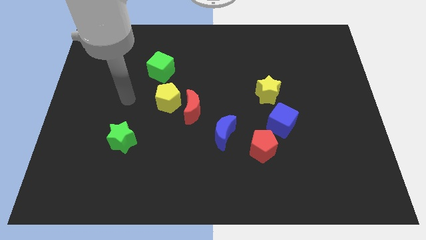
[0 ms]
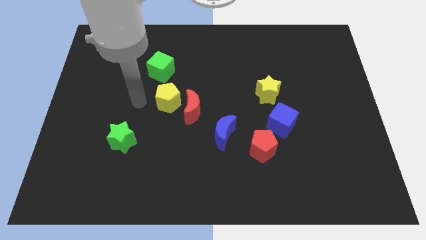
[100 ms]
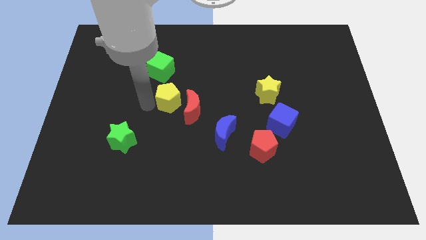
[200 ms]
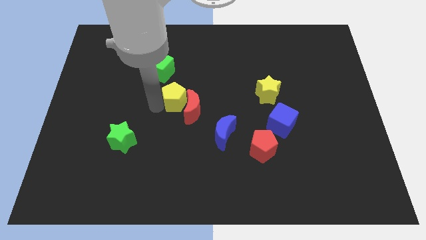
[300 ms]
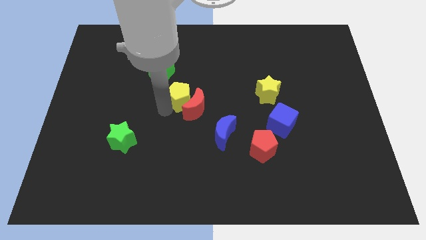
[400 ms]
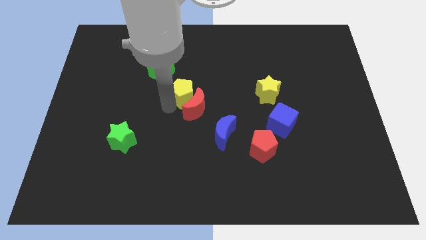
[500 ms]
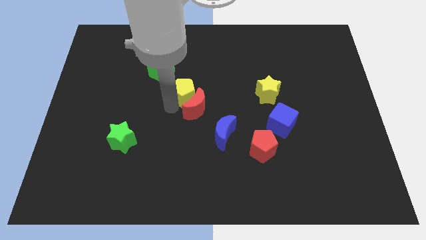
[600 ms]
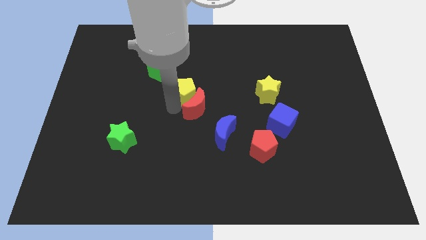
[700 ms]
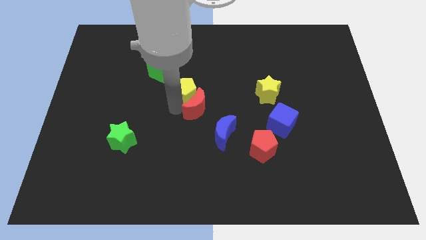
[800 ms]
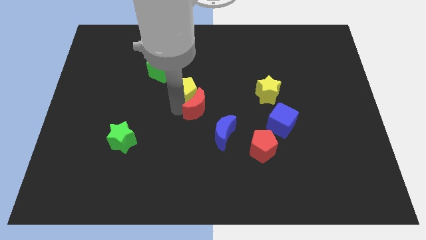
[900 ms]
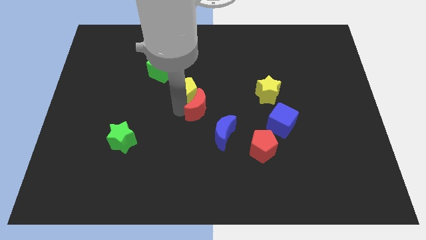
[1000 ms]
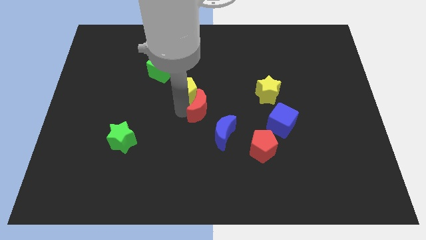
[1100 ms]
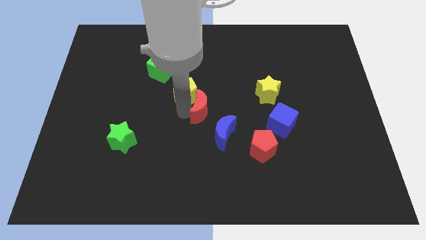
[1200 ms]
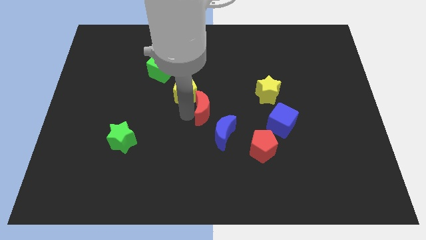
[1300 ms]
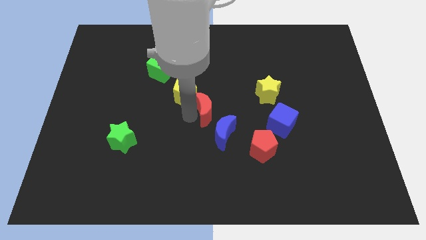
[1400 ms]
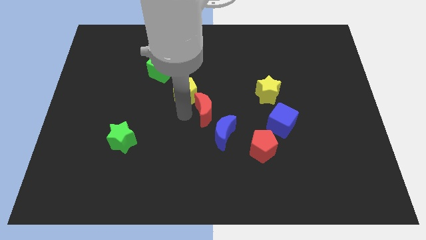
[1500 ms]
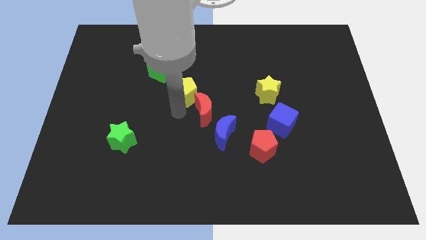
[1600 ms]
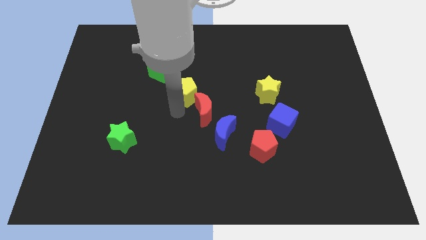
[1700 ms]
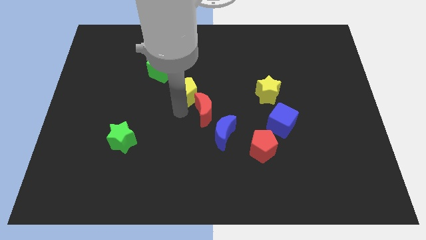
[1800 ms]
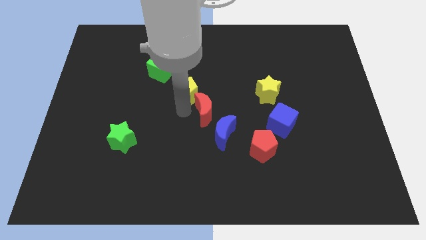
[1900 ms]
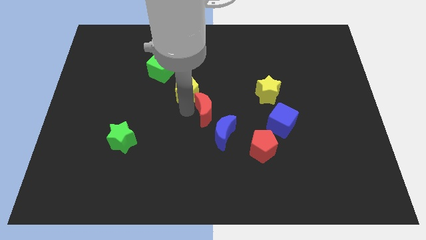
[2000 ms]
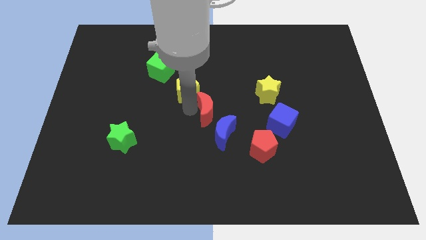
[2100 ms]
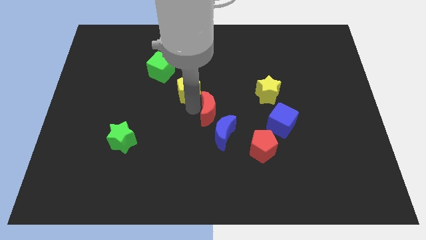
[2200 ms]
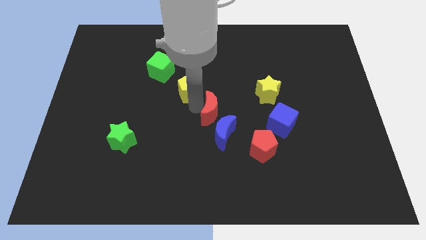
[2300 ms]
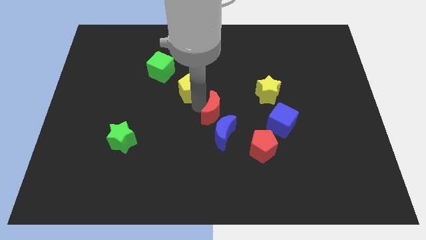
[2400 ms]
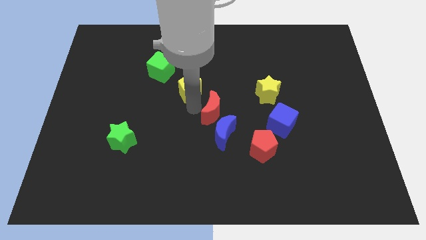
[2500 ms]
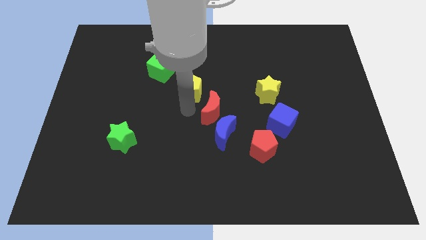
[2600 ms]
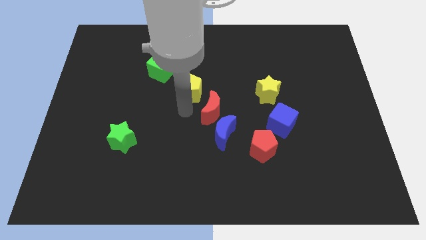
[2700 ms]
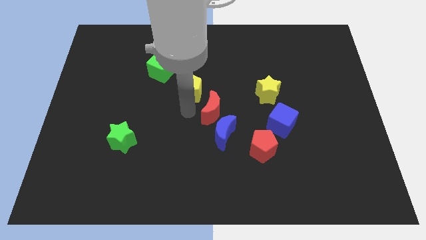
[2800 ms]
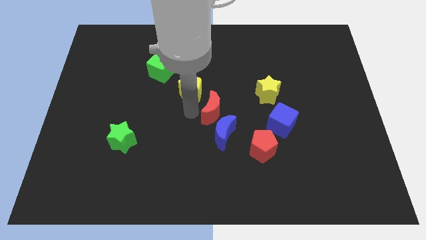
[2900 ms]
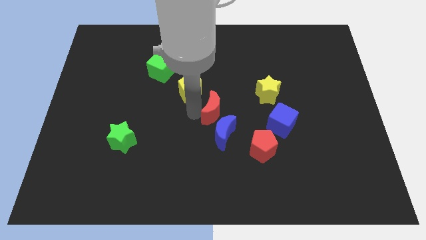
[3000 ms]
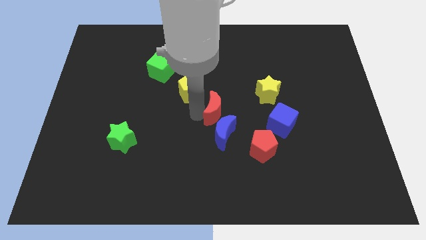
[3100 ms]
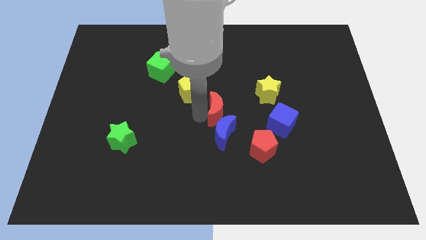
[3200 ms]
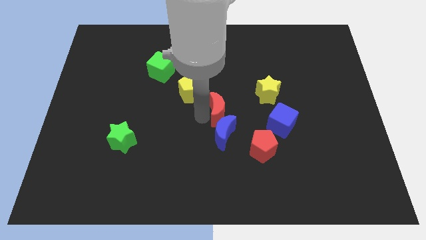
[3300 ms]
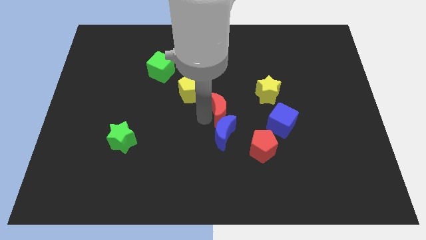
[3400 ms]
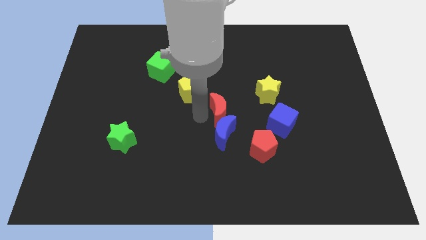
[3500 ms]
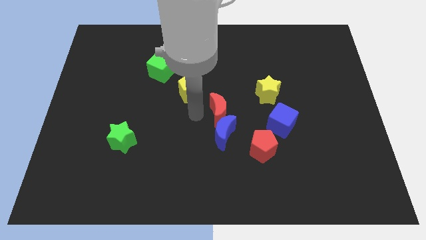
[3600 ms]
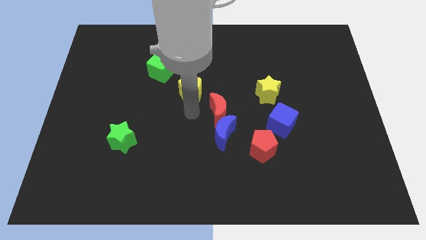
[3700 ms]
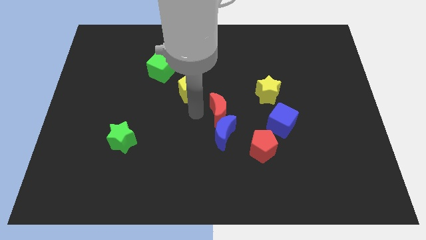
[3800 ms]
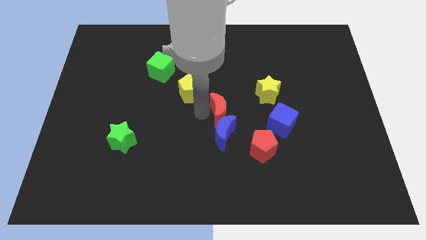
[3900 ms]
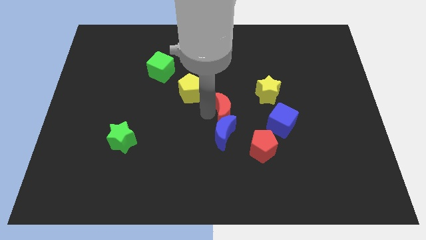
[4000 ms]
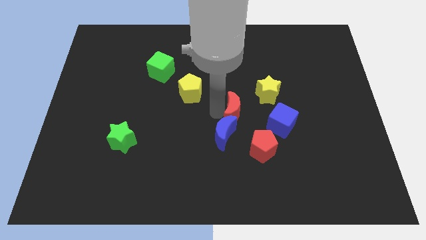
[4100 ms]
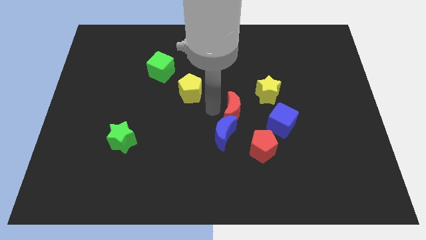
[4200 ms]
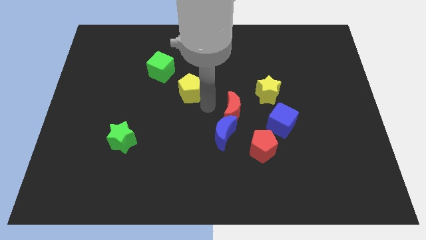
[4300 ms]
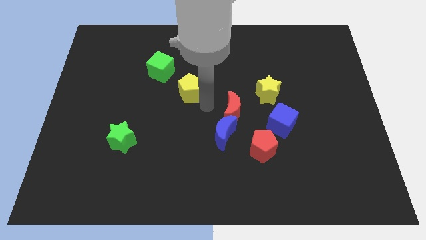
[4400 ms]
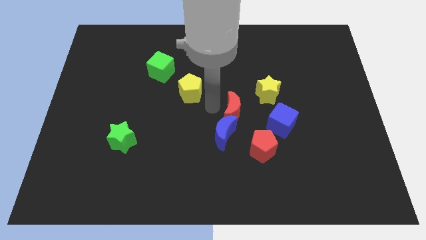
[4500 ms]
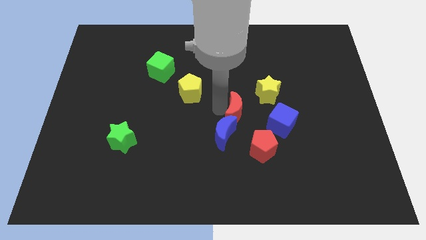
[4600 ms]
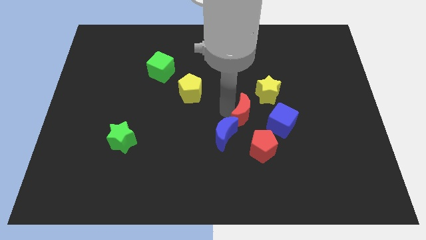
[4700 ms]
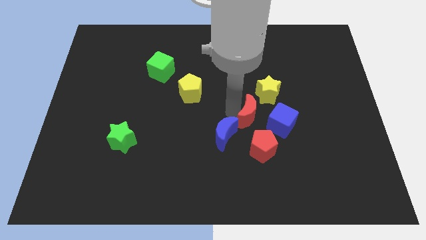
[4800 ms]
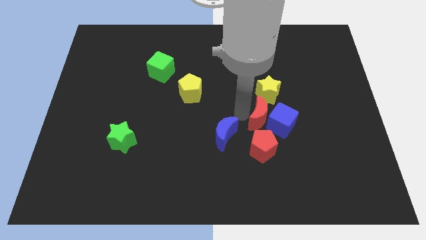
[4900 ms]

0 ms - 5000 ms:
push the red moon towards the blue cube

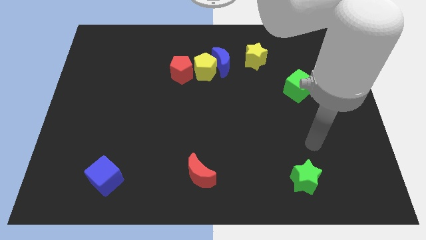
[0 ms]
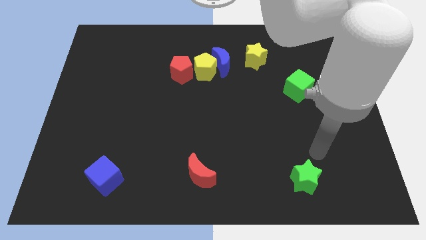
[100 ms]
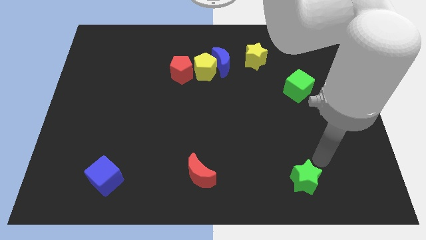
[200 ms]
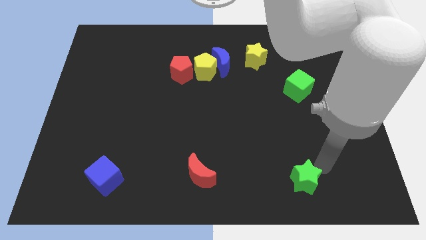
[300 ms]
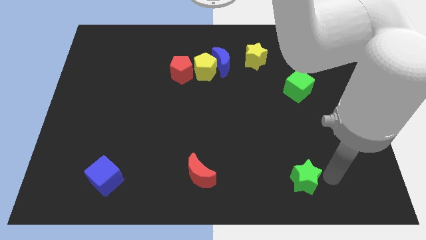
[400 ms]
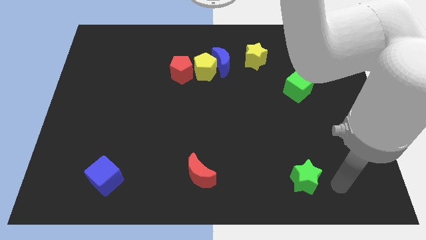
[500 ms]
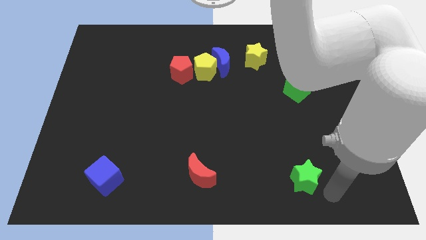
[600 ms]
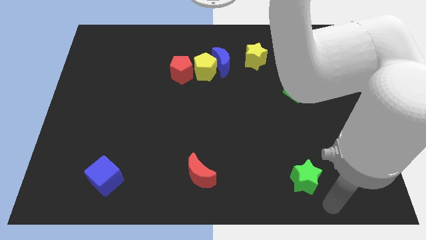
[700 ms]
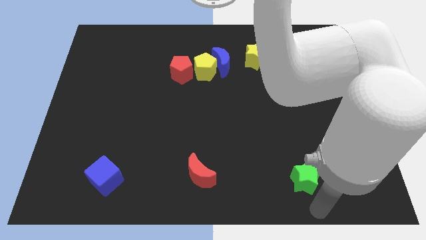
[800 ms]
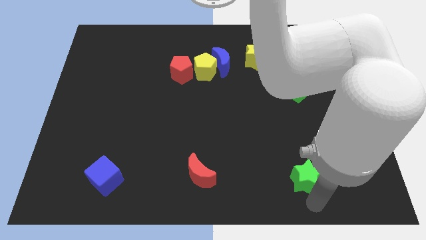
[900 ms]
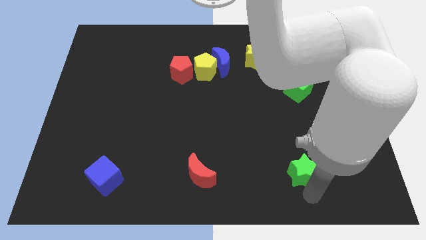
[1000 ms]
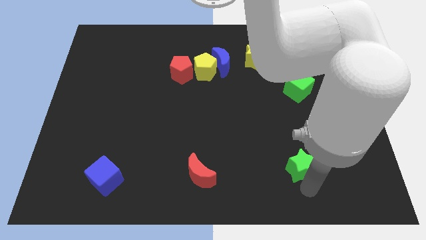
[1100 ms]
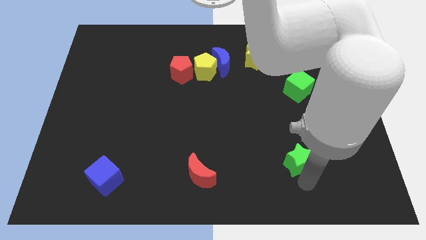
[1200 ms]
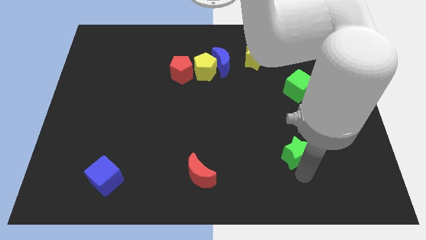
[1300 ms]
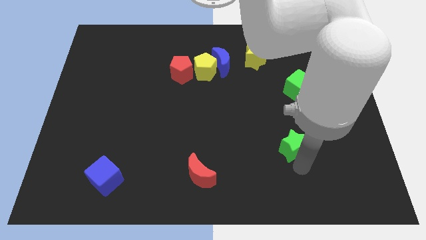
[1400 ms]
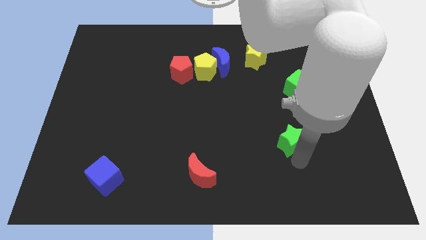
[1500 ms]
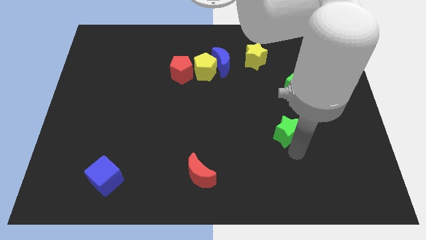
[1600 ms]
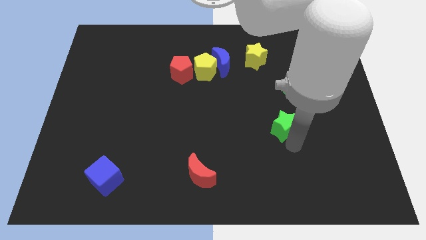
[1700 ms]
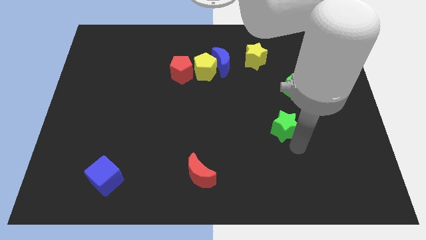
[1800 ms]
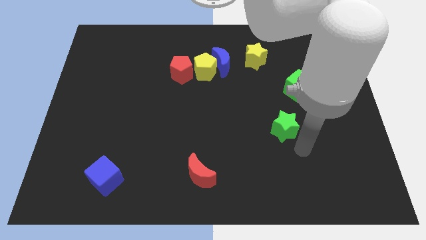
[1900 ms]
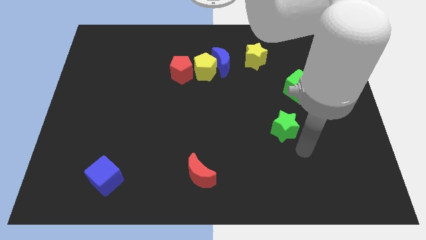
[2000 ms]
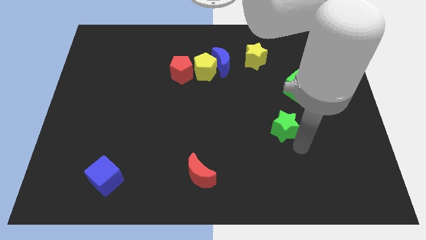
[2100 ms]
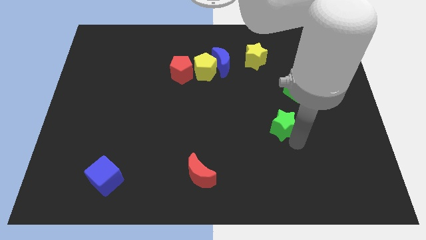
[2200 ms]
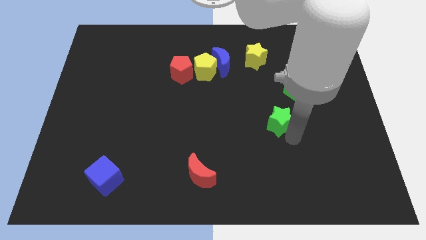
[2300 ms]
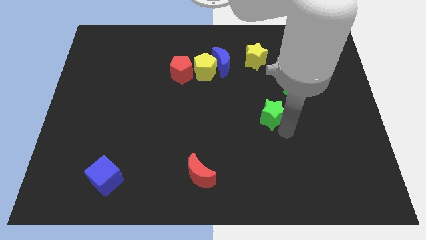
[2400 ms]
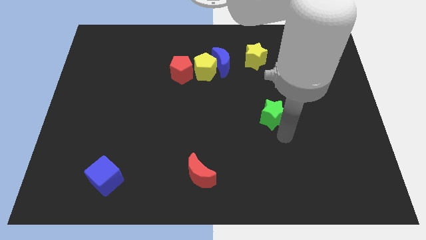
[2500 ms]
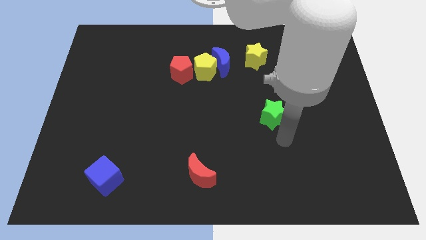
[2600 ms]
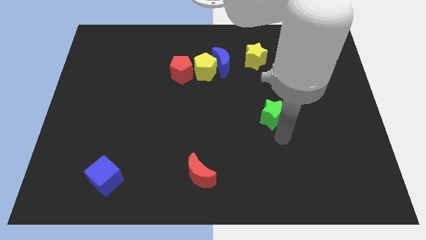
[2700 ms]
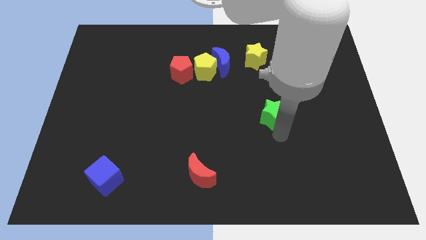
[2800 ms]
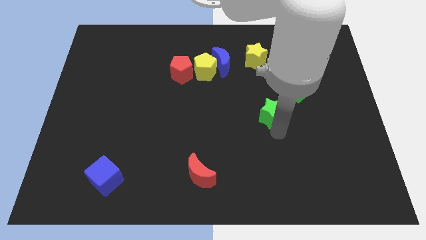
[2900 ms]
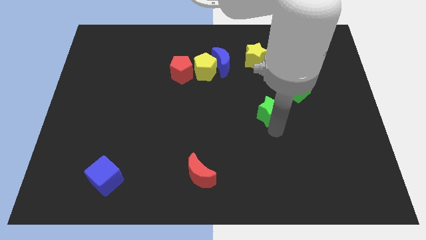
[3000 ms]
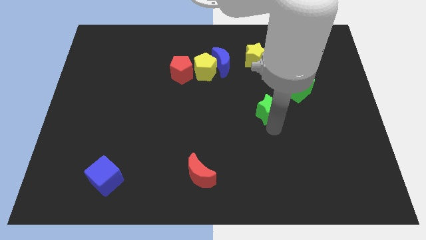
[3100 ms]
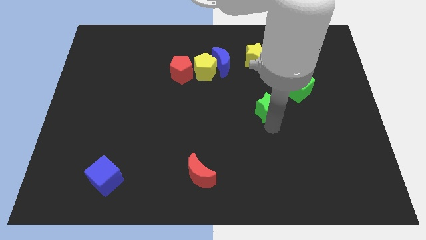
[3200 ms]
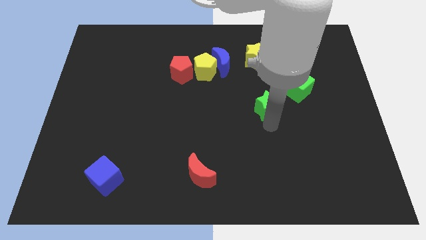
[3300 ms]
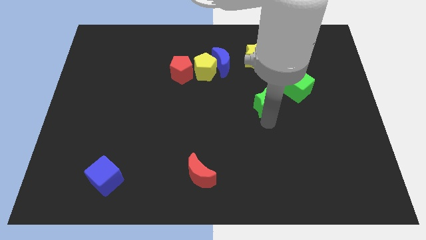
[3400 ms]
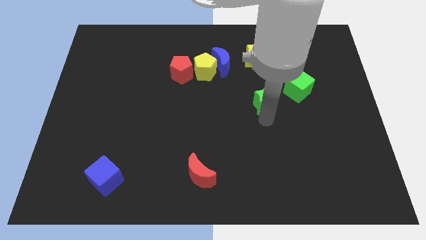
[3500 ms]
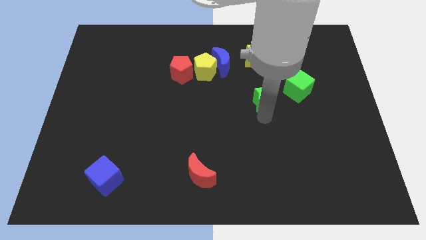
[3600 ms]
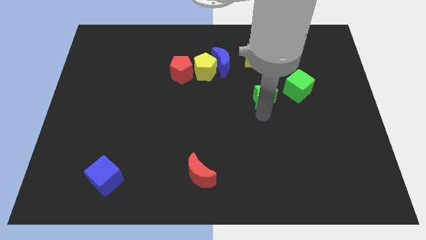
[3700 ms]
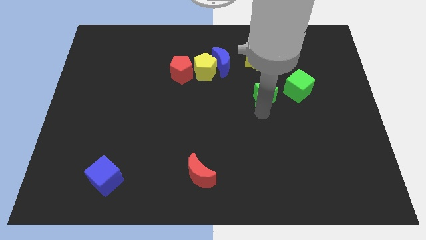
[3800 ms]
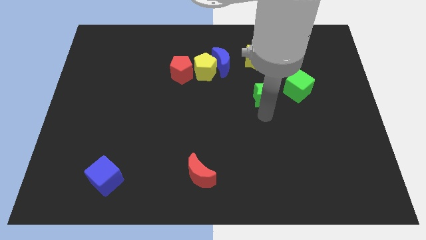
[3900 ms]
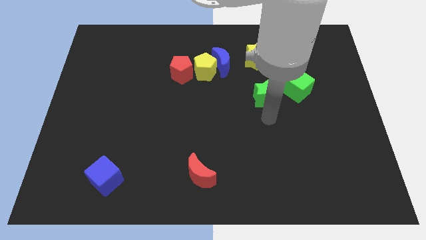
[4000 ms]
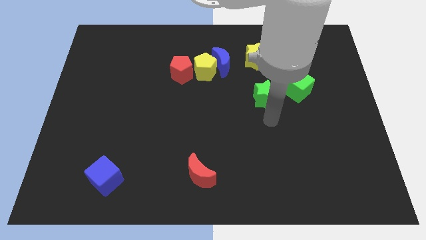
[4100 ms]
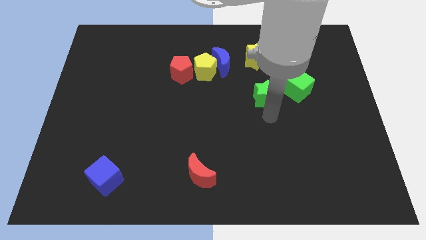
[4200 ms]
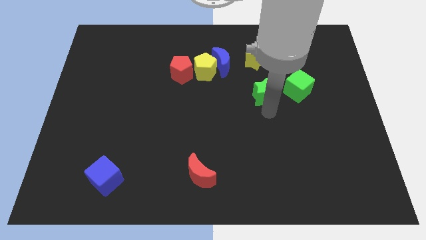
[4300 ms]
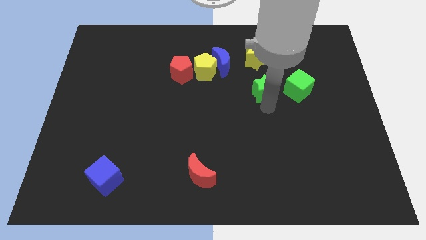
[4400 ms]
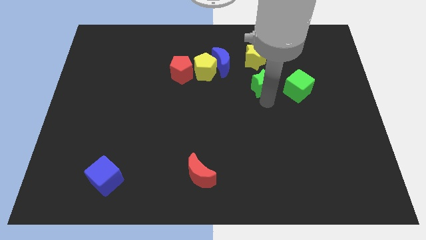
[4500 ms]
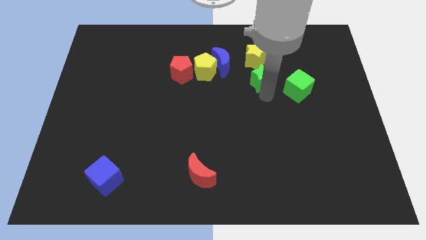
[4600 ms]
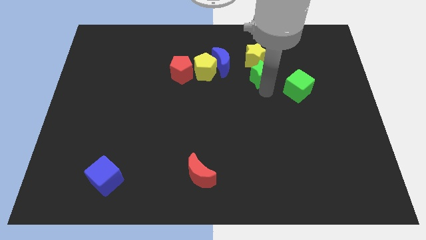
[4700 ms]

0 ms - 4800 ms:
push the green star to the yellow star
